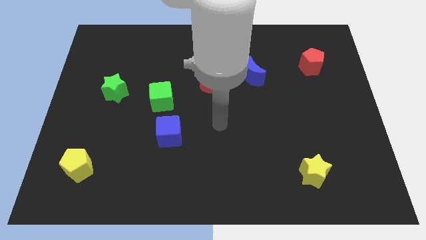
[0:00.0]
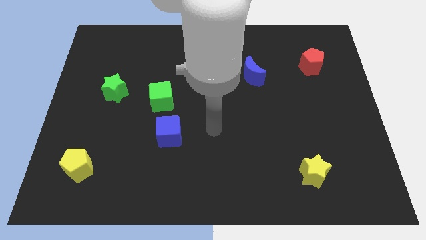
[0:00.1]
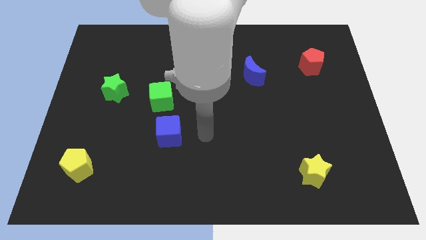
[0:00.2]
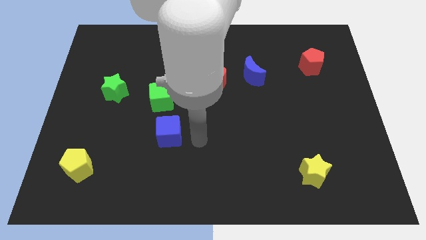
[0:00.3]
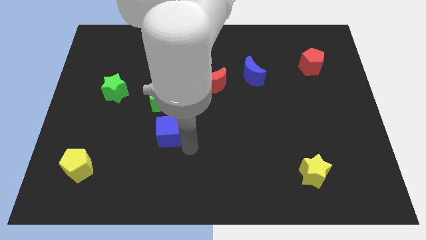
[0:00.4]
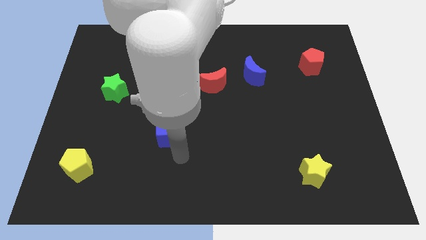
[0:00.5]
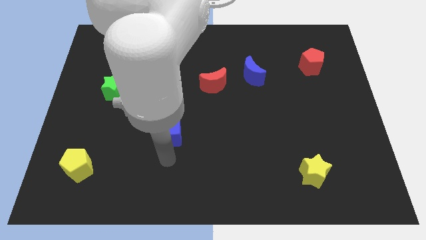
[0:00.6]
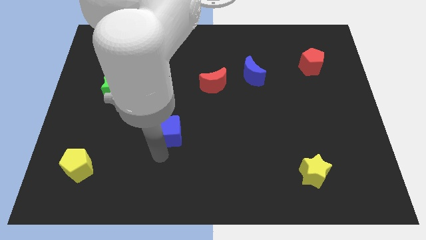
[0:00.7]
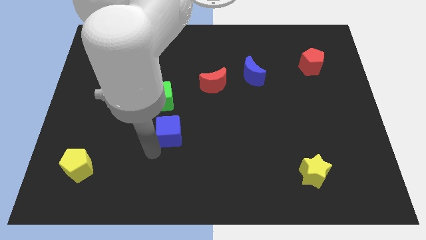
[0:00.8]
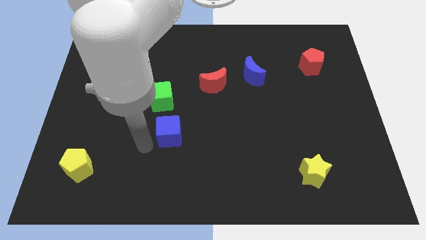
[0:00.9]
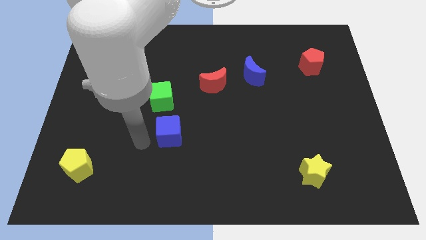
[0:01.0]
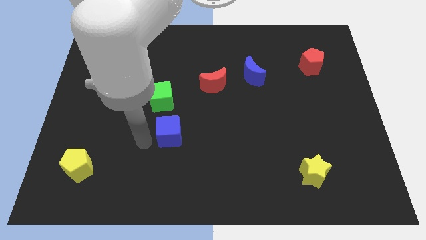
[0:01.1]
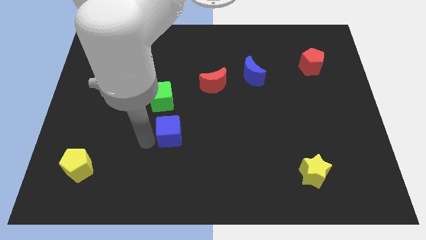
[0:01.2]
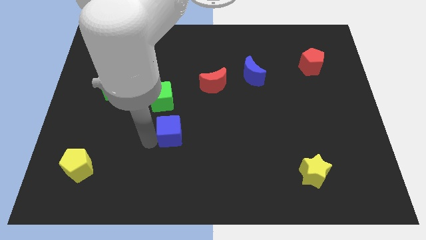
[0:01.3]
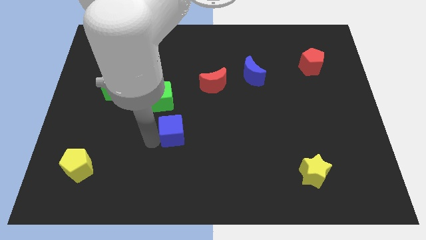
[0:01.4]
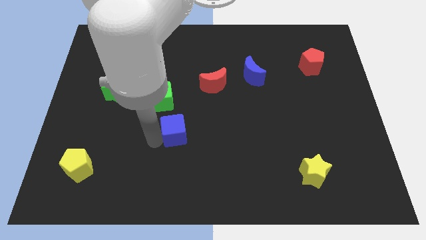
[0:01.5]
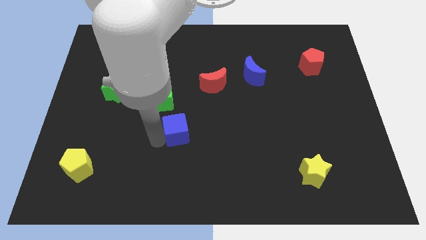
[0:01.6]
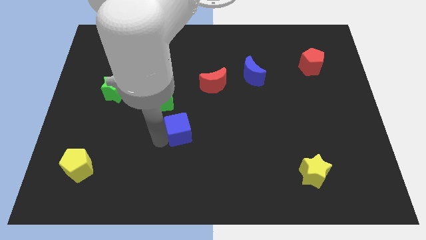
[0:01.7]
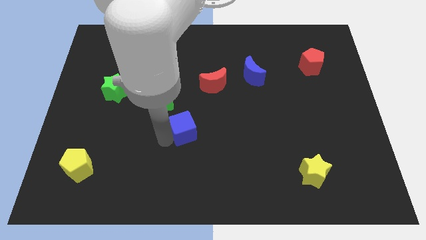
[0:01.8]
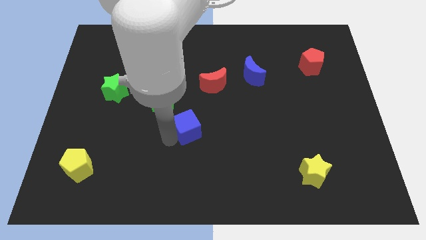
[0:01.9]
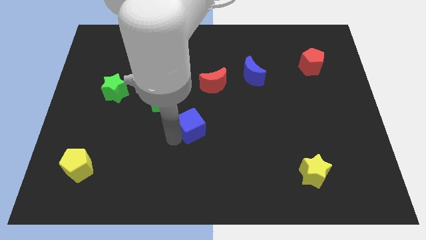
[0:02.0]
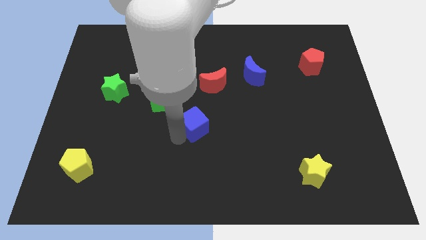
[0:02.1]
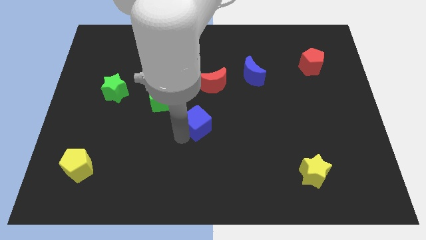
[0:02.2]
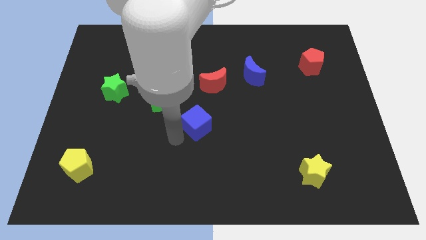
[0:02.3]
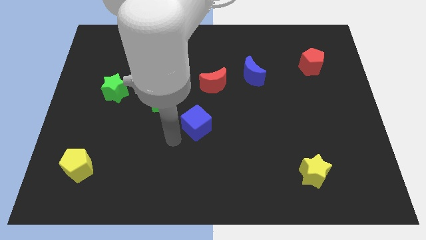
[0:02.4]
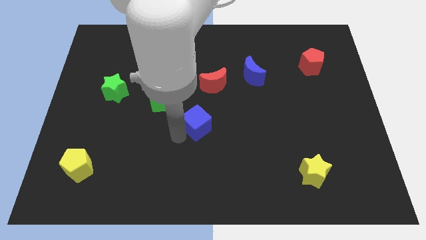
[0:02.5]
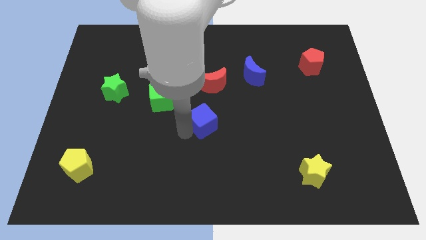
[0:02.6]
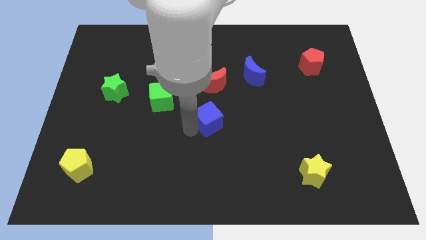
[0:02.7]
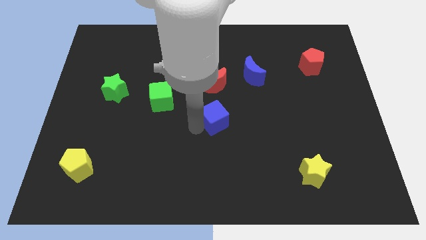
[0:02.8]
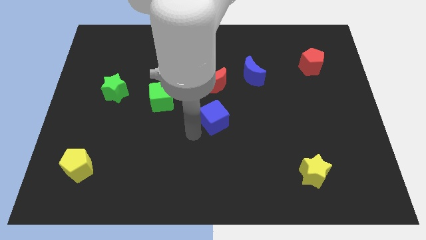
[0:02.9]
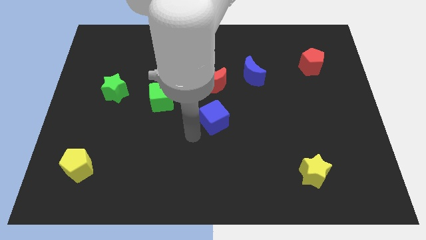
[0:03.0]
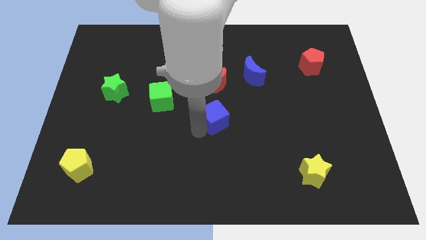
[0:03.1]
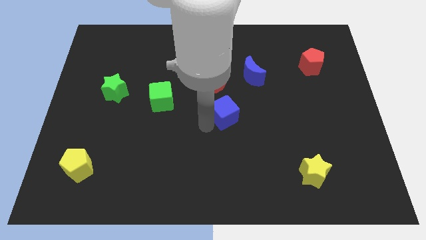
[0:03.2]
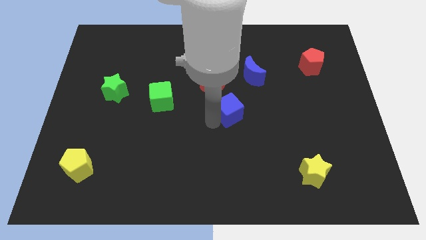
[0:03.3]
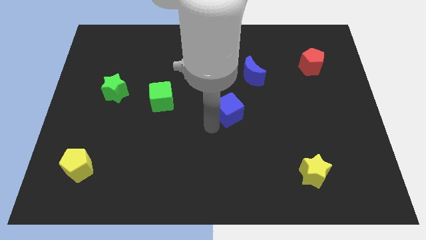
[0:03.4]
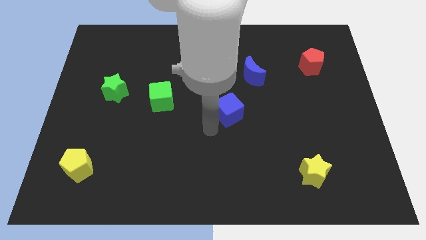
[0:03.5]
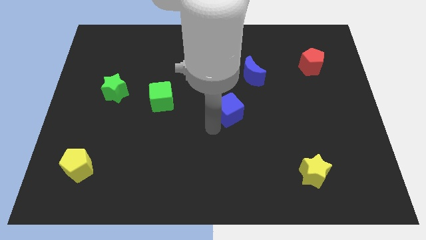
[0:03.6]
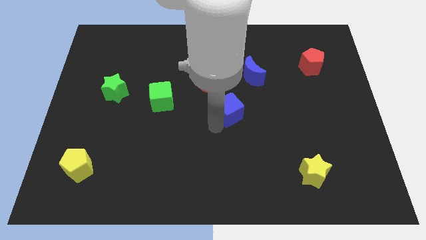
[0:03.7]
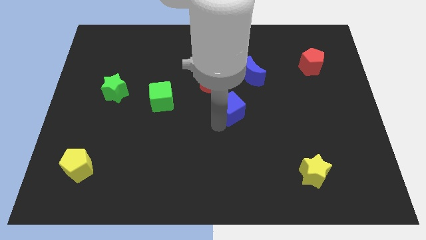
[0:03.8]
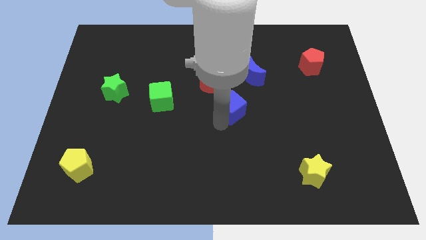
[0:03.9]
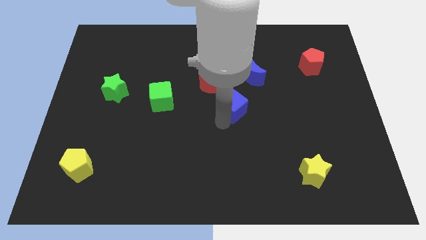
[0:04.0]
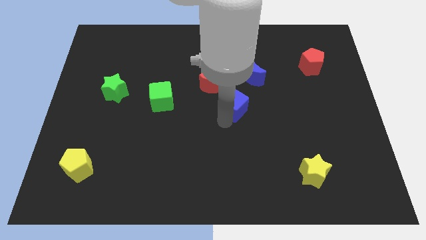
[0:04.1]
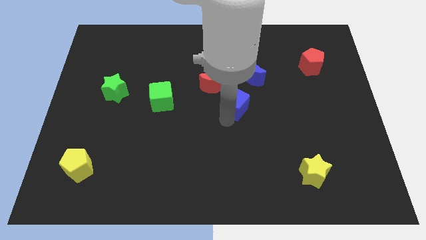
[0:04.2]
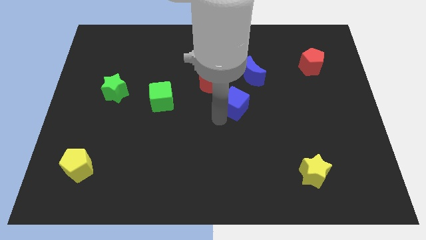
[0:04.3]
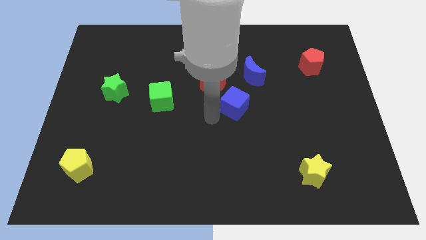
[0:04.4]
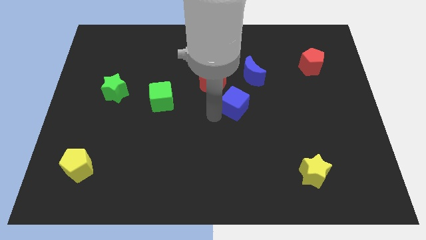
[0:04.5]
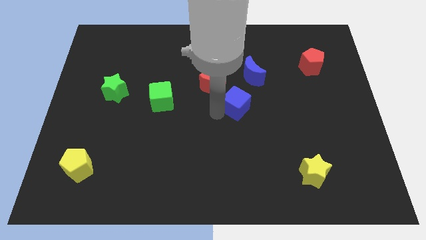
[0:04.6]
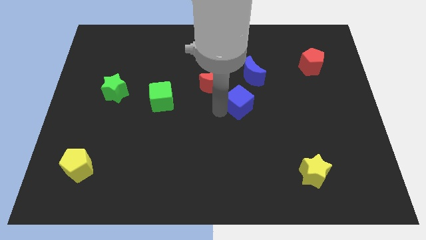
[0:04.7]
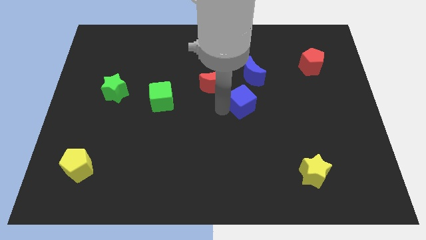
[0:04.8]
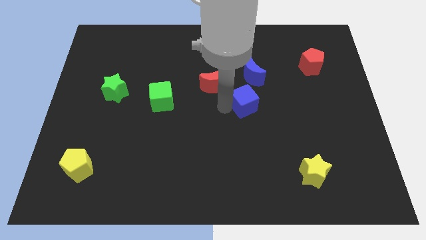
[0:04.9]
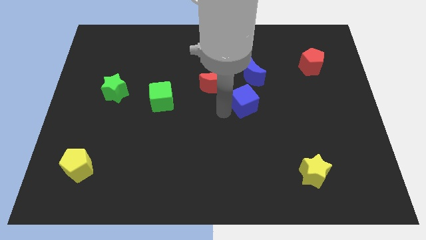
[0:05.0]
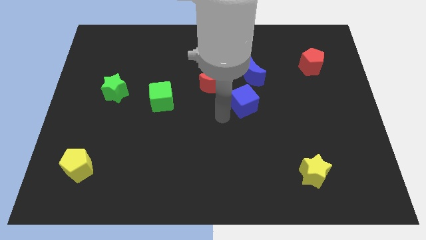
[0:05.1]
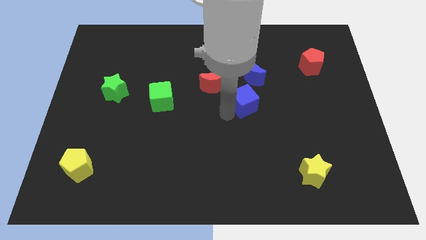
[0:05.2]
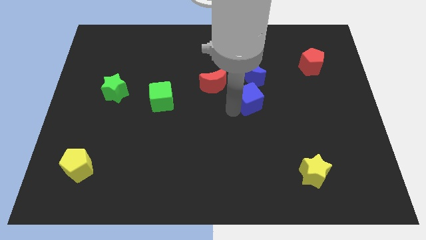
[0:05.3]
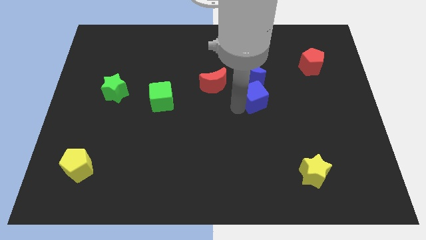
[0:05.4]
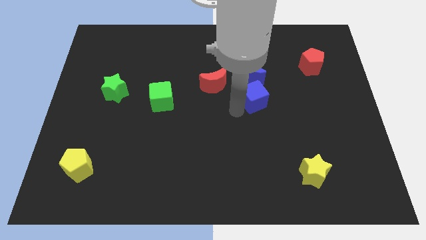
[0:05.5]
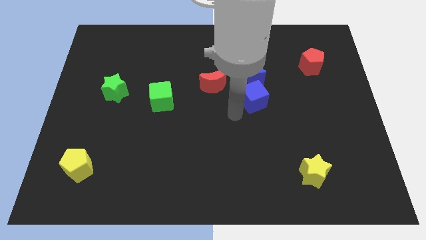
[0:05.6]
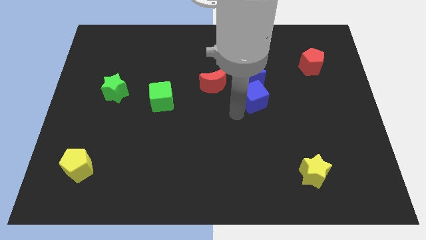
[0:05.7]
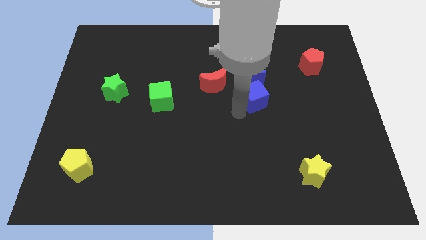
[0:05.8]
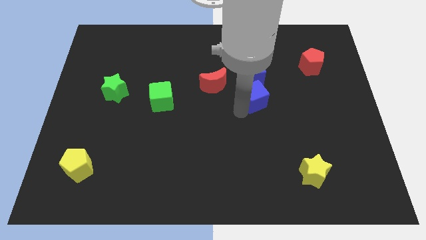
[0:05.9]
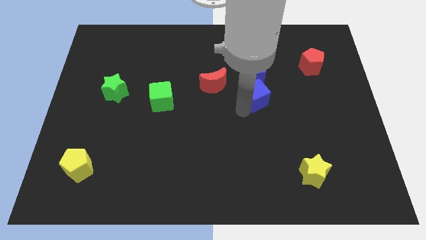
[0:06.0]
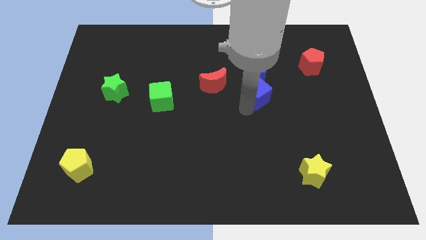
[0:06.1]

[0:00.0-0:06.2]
push the blue cube up and right diagonally

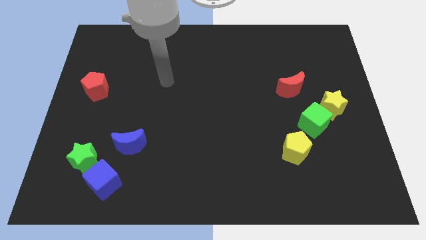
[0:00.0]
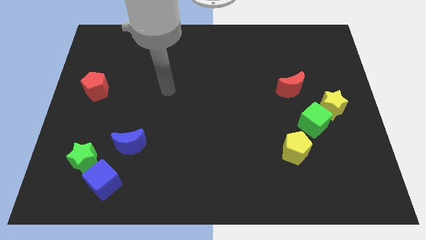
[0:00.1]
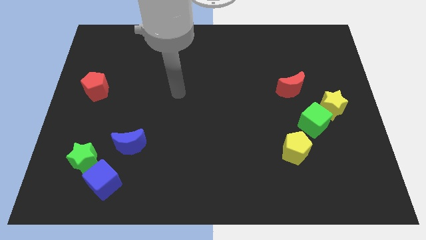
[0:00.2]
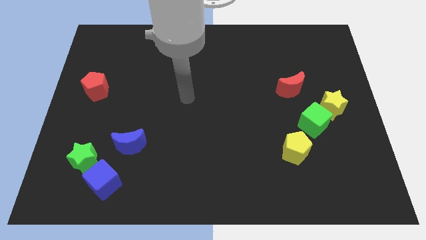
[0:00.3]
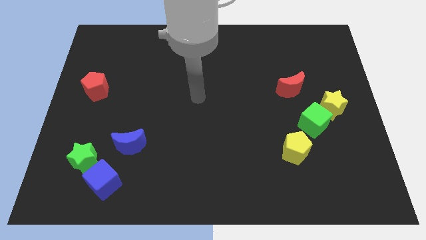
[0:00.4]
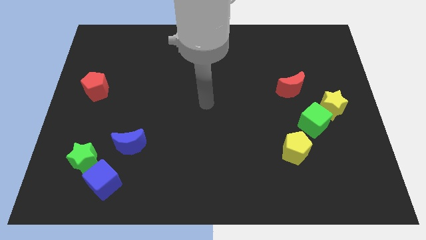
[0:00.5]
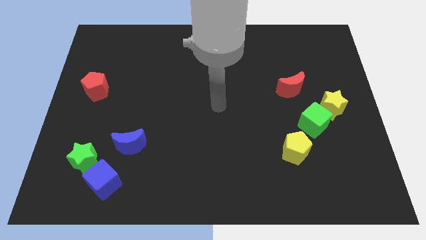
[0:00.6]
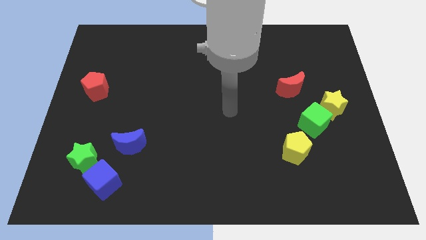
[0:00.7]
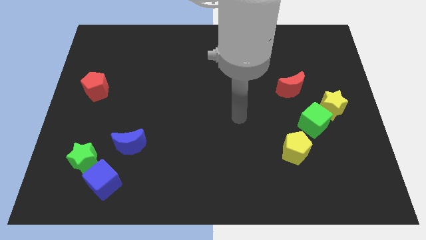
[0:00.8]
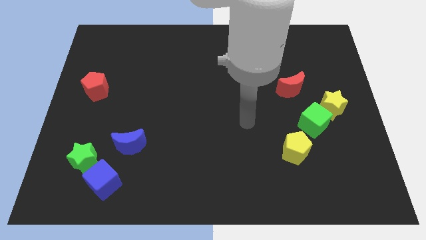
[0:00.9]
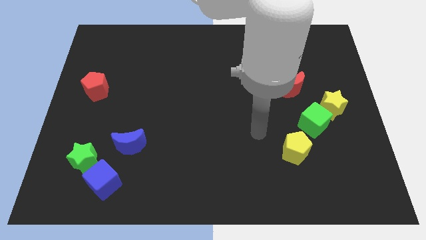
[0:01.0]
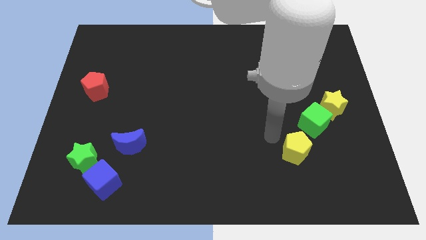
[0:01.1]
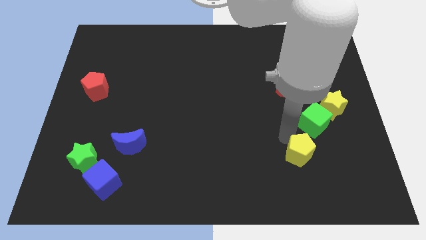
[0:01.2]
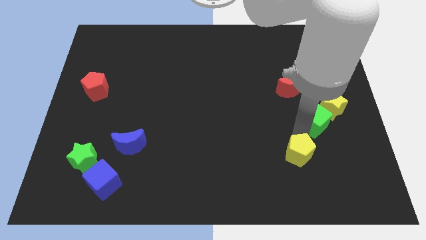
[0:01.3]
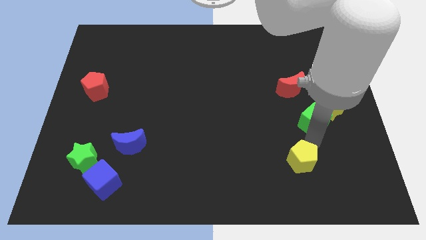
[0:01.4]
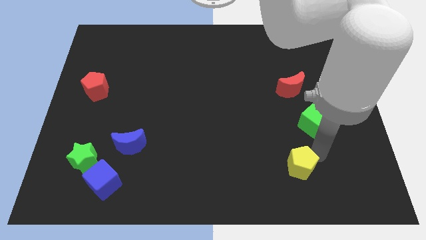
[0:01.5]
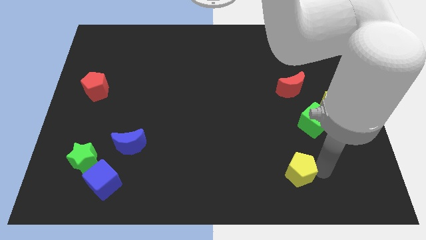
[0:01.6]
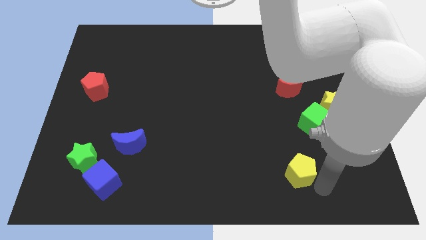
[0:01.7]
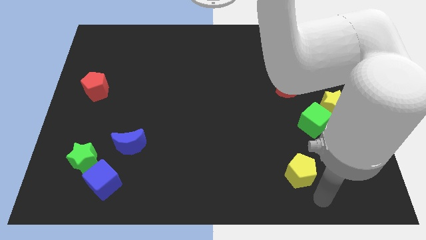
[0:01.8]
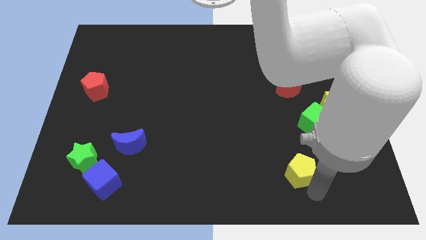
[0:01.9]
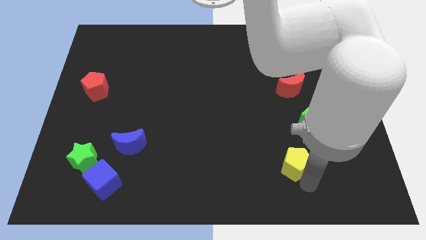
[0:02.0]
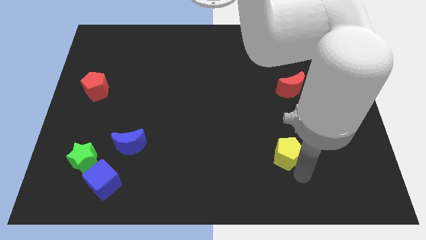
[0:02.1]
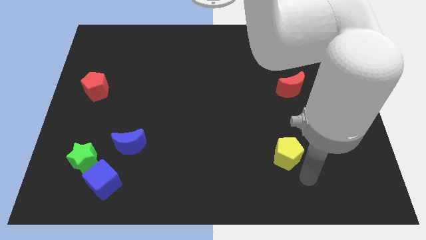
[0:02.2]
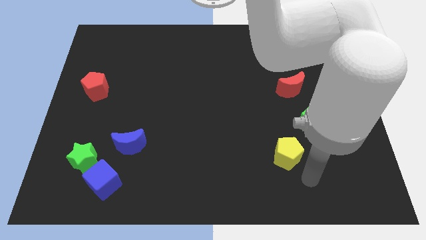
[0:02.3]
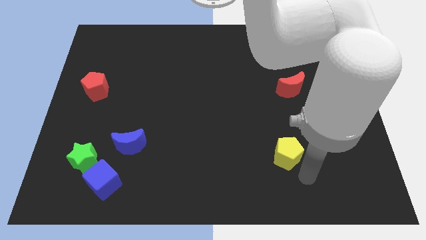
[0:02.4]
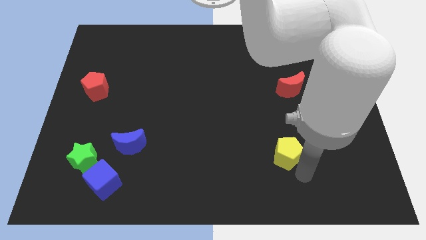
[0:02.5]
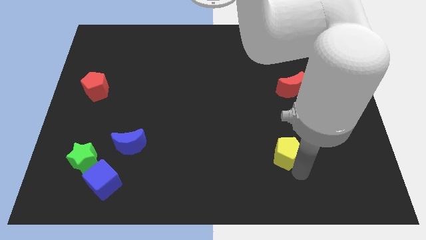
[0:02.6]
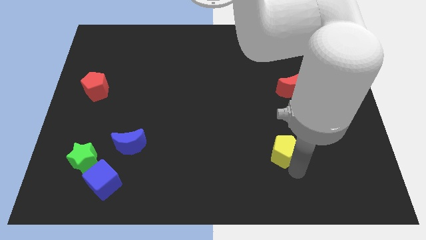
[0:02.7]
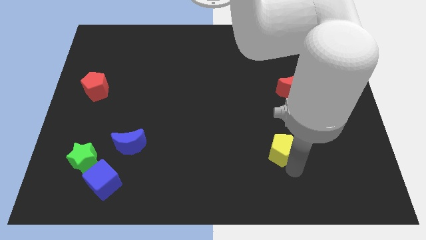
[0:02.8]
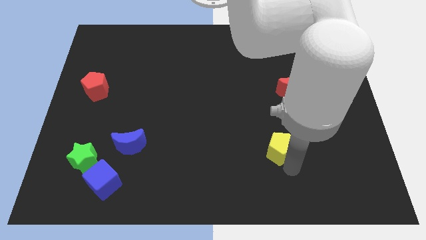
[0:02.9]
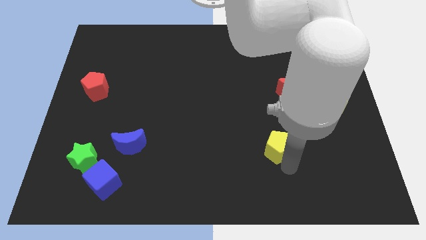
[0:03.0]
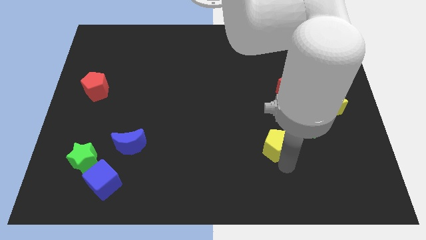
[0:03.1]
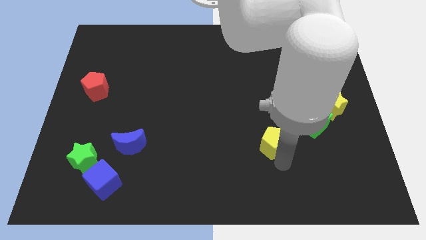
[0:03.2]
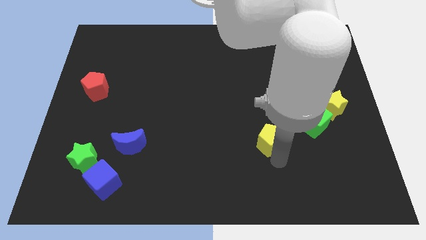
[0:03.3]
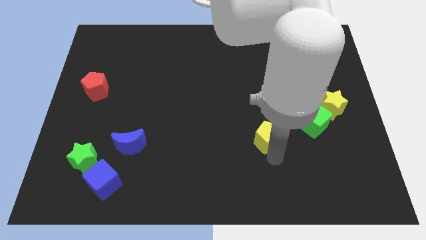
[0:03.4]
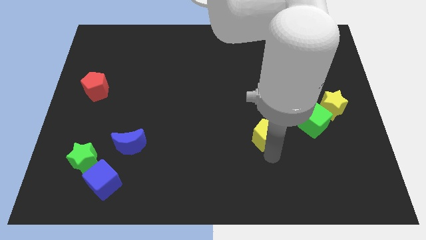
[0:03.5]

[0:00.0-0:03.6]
push the yellow pentagon up and left diagonally a little
